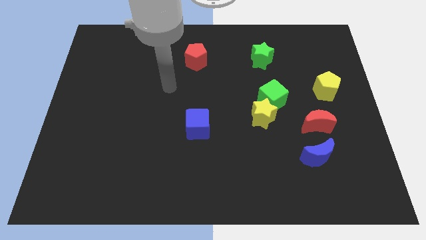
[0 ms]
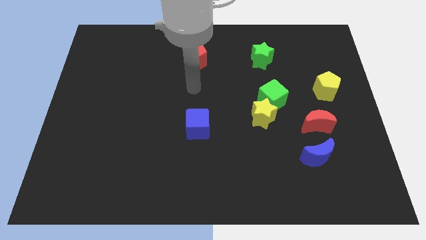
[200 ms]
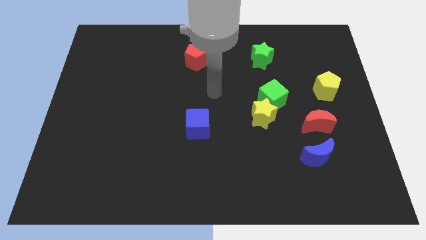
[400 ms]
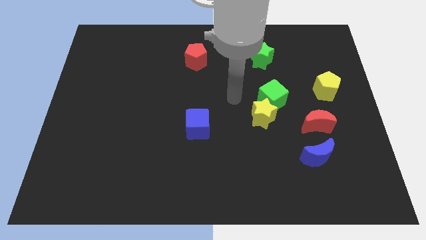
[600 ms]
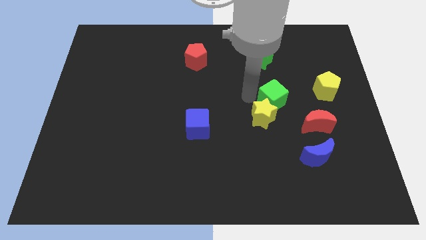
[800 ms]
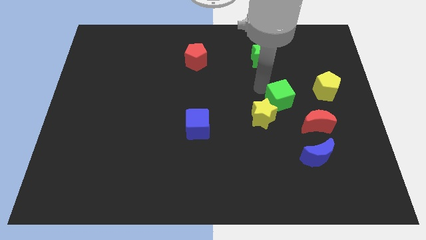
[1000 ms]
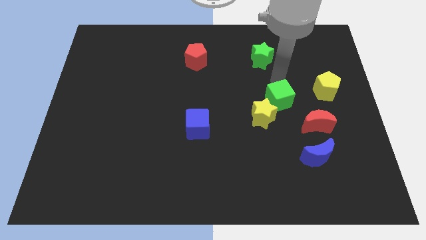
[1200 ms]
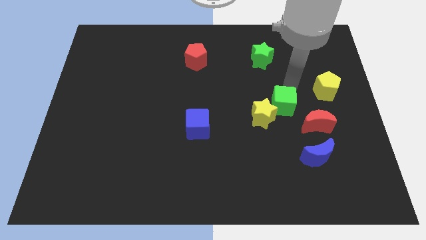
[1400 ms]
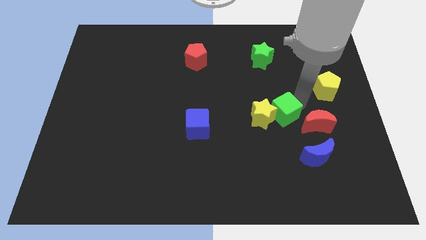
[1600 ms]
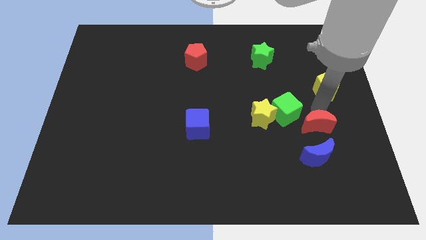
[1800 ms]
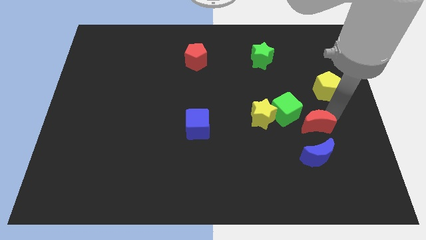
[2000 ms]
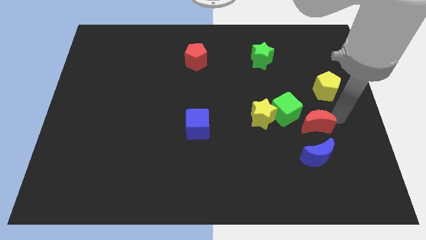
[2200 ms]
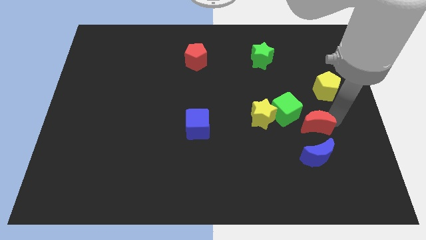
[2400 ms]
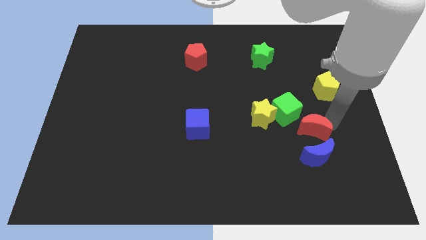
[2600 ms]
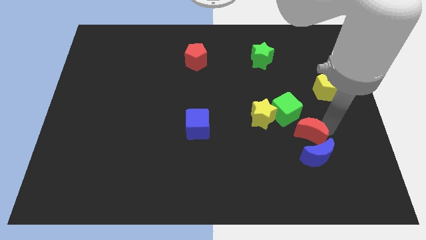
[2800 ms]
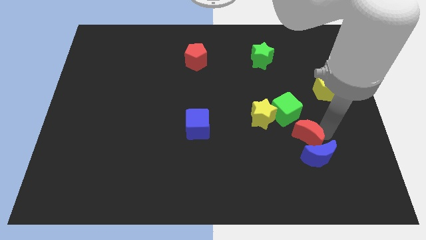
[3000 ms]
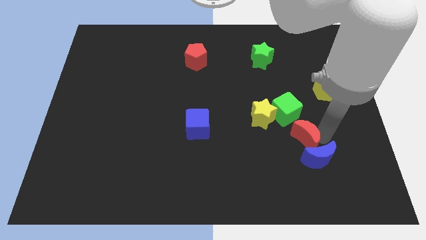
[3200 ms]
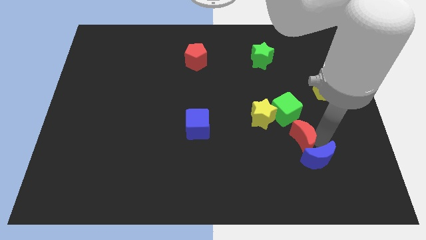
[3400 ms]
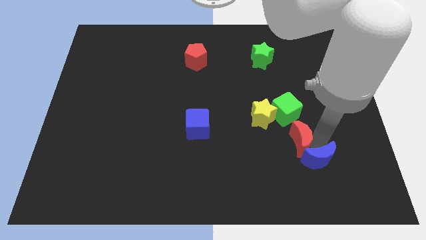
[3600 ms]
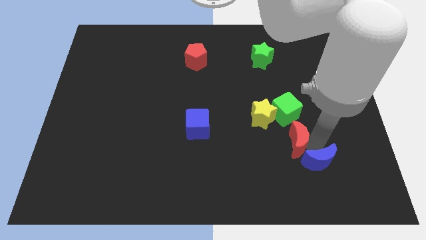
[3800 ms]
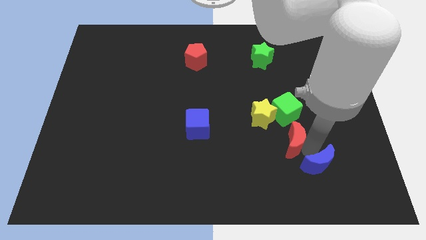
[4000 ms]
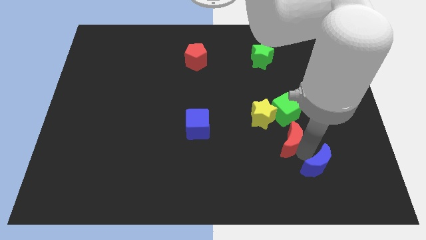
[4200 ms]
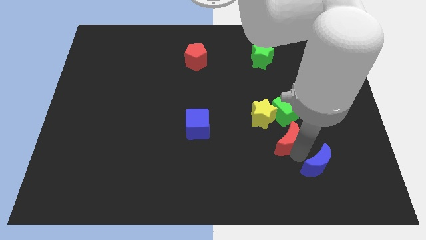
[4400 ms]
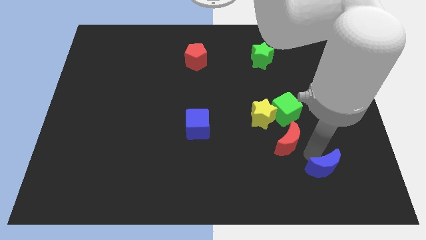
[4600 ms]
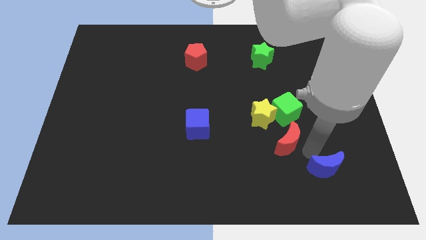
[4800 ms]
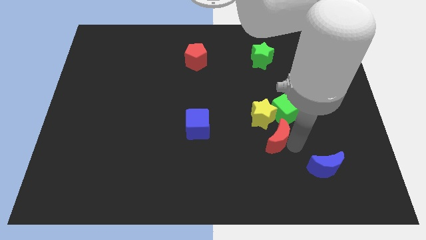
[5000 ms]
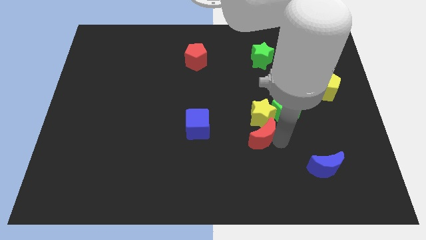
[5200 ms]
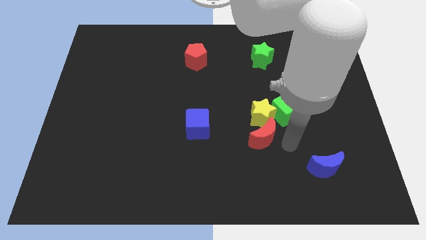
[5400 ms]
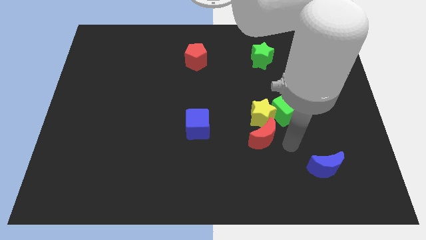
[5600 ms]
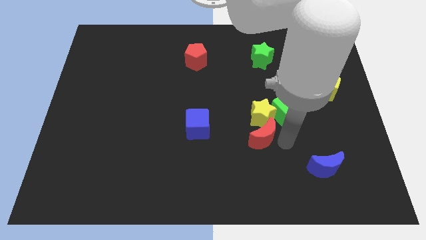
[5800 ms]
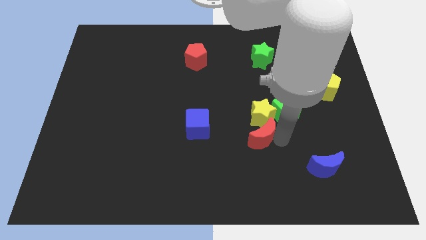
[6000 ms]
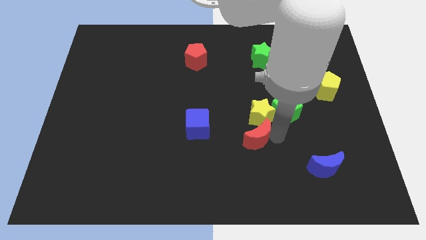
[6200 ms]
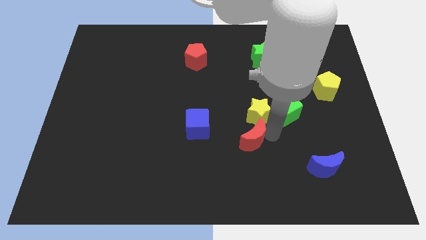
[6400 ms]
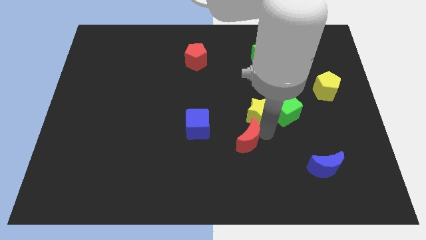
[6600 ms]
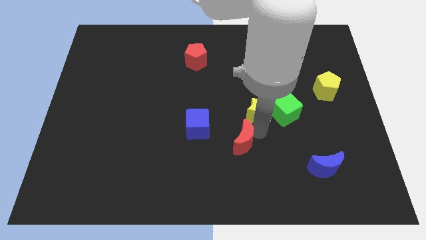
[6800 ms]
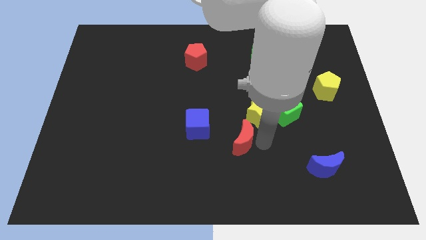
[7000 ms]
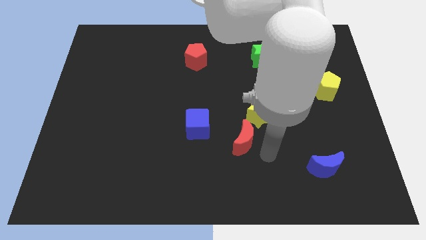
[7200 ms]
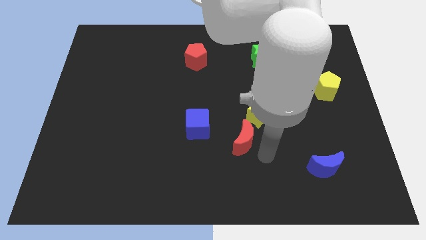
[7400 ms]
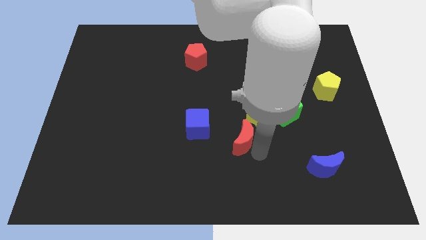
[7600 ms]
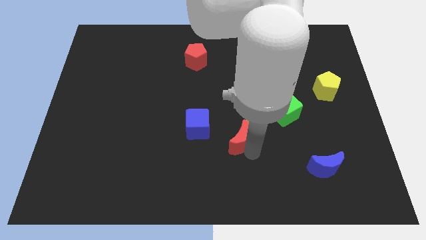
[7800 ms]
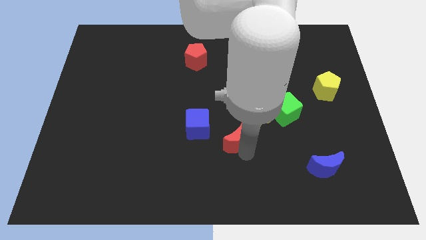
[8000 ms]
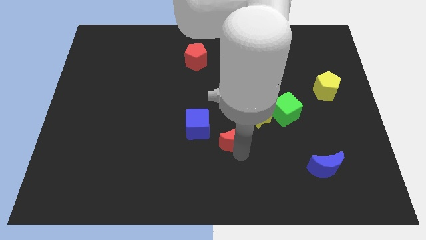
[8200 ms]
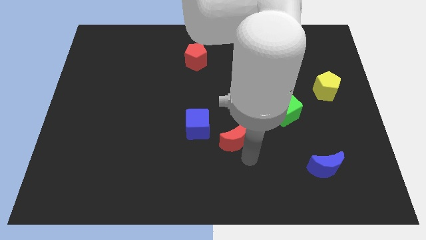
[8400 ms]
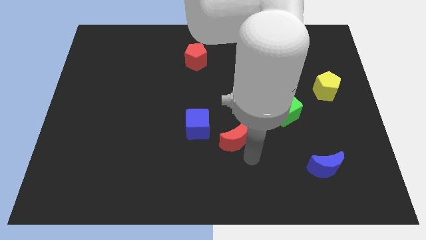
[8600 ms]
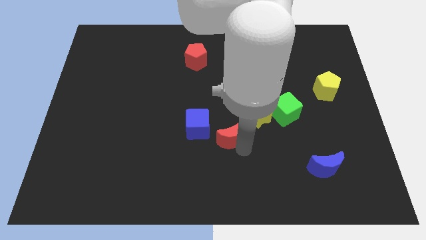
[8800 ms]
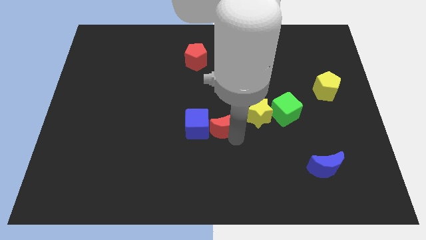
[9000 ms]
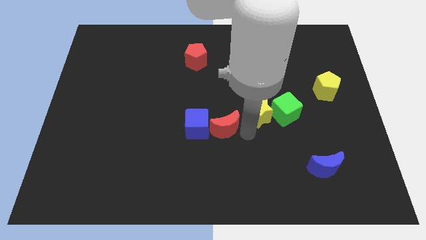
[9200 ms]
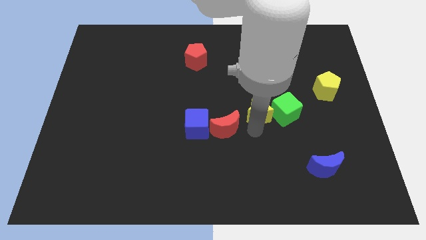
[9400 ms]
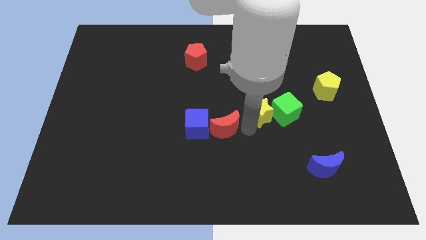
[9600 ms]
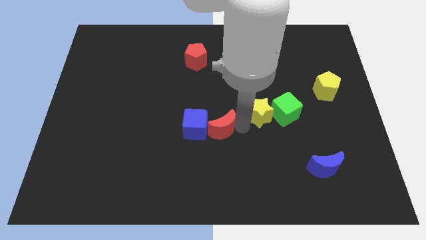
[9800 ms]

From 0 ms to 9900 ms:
push the red moon close to the blue cube

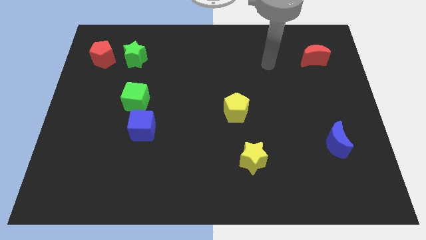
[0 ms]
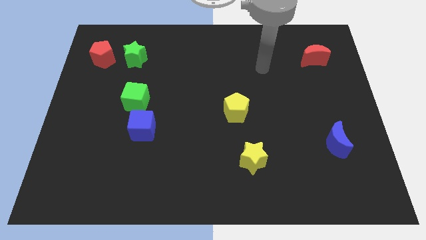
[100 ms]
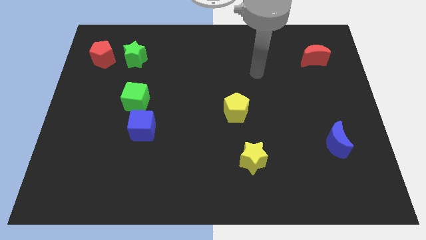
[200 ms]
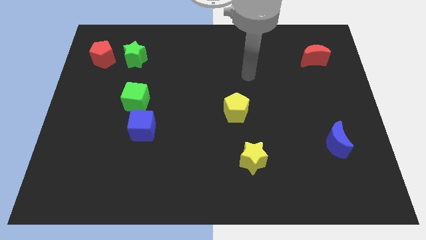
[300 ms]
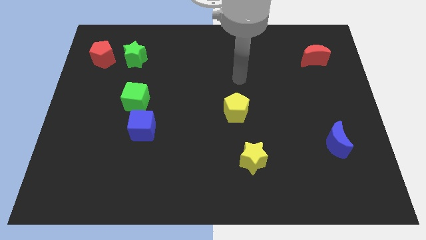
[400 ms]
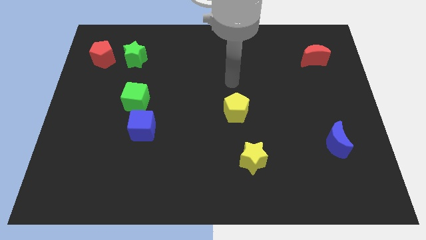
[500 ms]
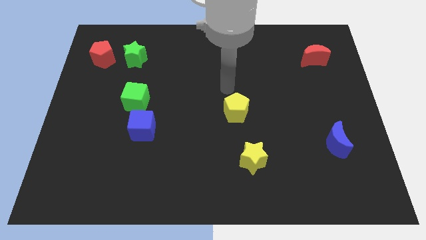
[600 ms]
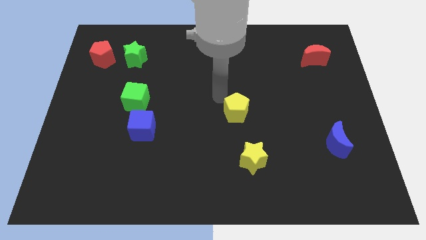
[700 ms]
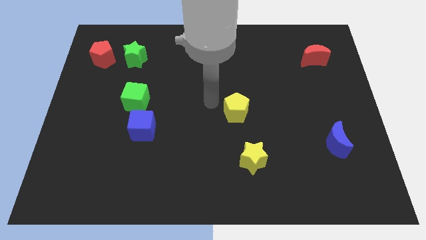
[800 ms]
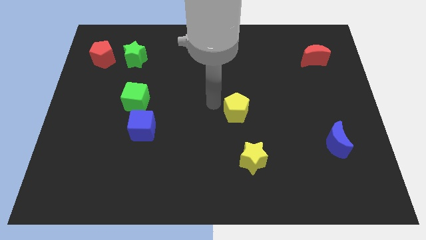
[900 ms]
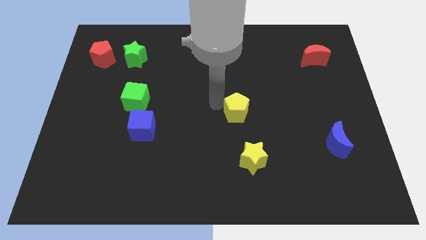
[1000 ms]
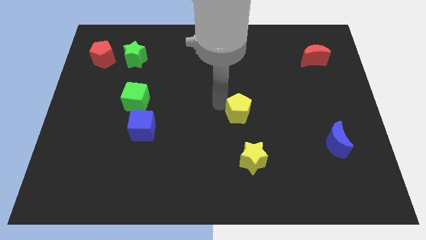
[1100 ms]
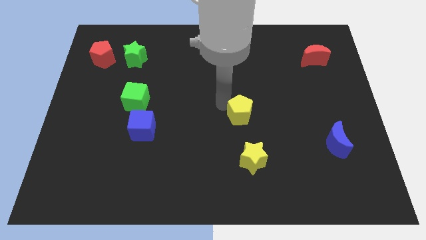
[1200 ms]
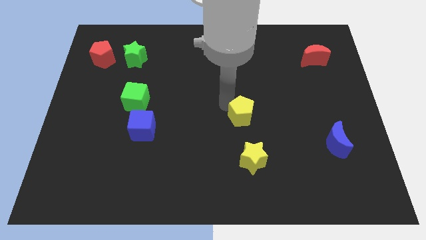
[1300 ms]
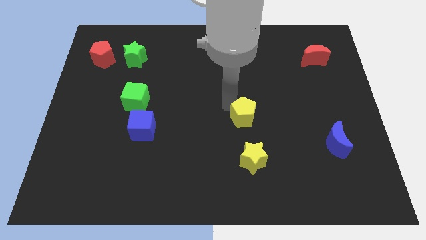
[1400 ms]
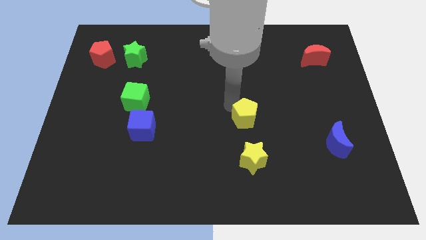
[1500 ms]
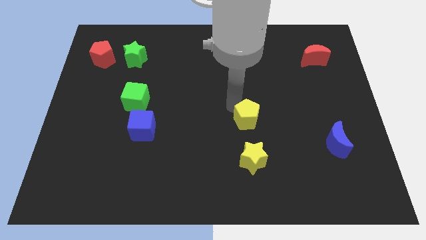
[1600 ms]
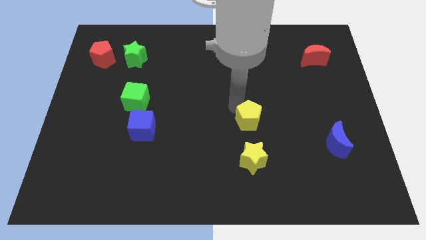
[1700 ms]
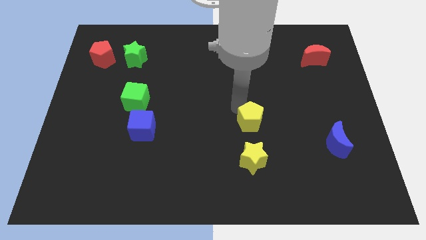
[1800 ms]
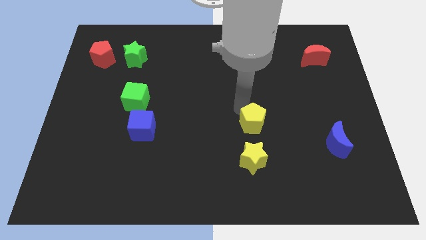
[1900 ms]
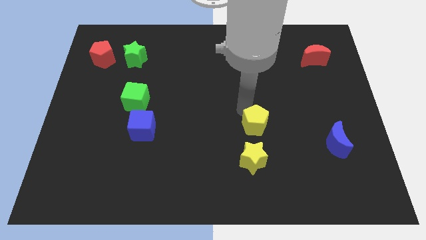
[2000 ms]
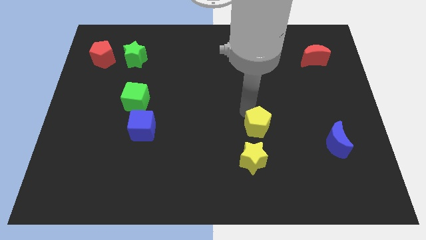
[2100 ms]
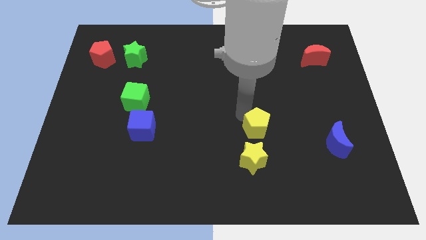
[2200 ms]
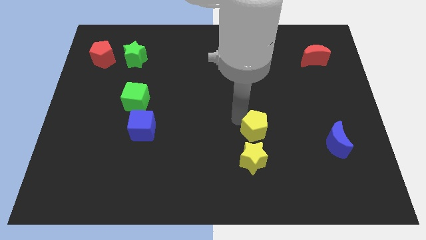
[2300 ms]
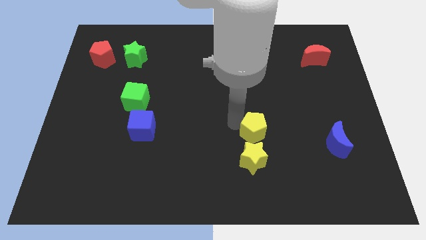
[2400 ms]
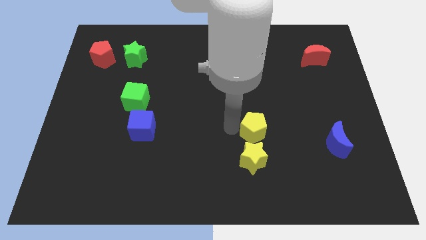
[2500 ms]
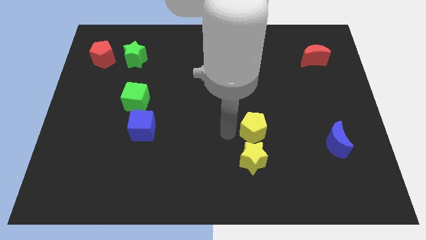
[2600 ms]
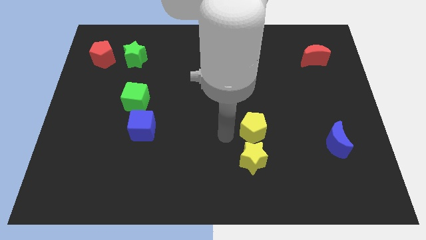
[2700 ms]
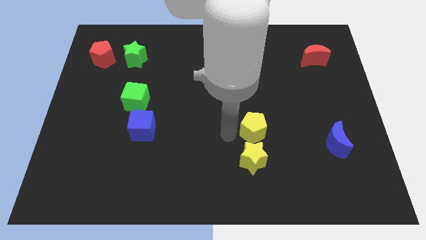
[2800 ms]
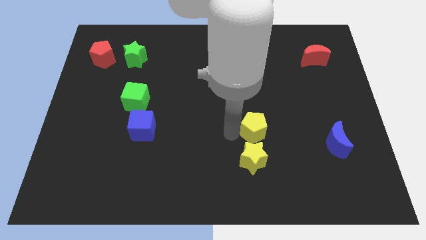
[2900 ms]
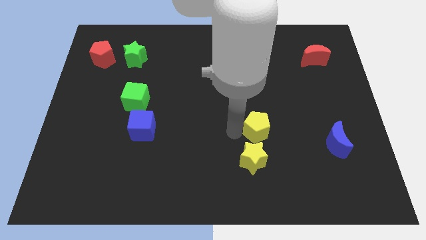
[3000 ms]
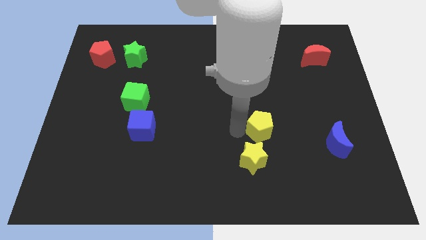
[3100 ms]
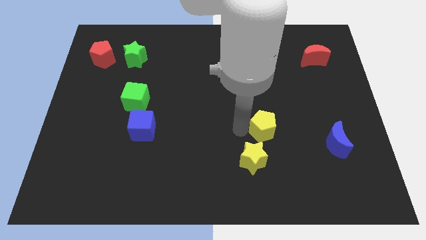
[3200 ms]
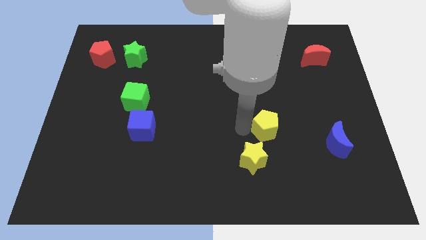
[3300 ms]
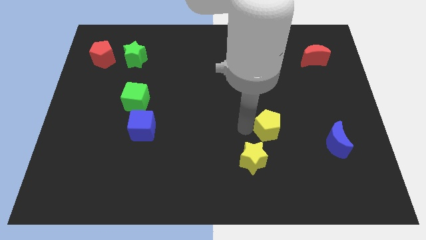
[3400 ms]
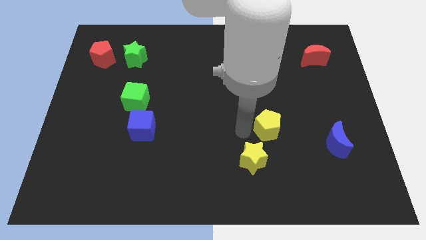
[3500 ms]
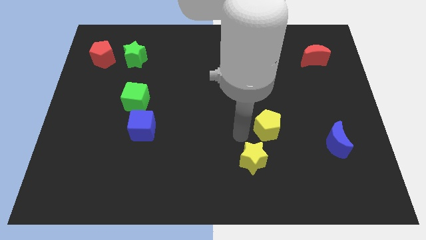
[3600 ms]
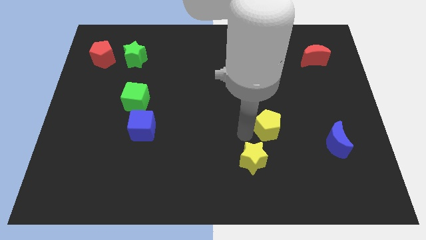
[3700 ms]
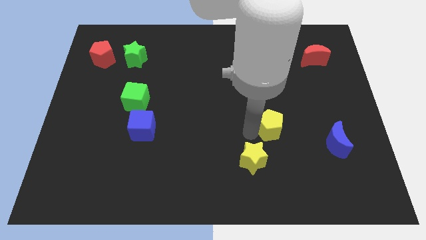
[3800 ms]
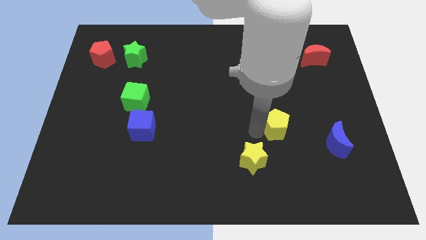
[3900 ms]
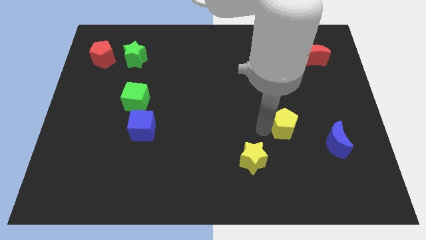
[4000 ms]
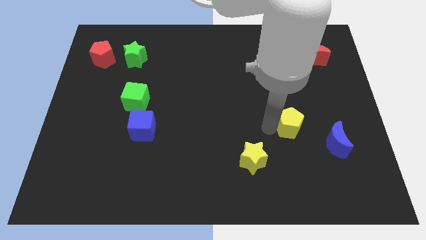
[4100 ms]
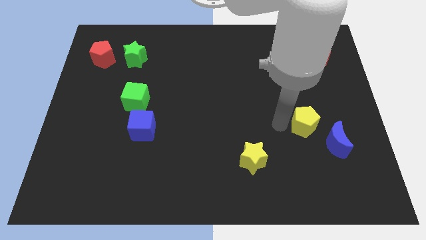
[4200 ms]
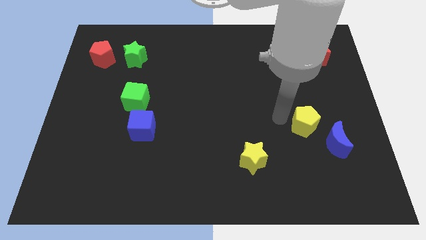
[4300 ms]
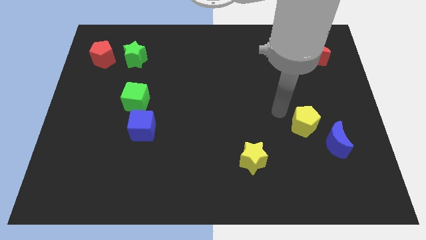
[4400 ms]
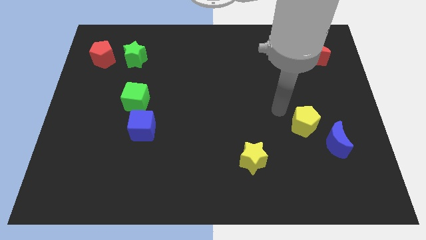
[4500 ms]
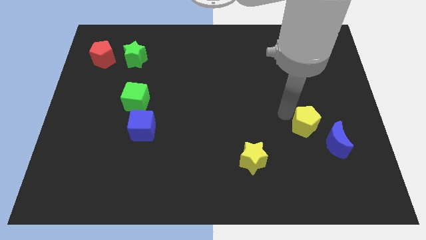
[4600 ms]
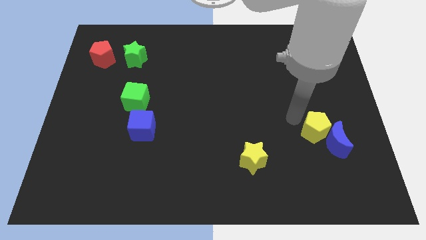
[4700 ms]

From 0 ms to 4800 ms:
move the yellow pentagon next to the blue moon
